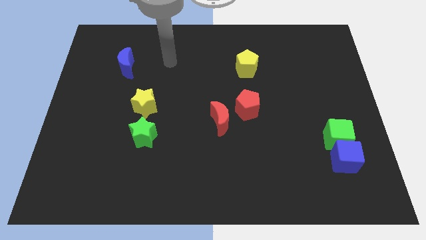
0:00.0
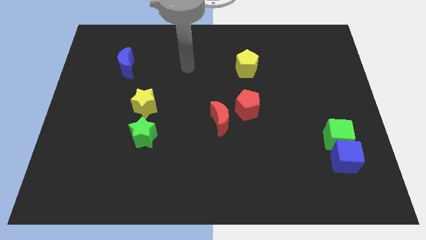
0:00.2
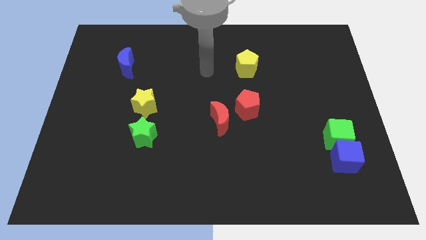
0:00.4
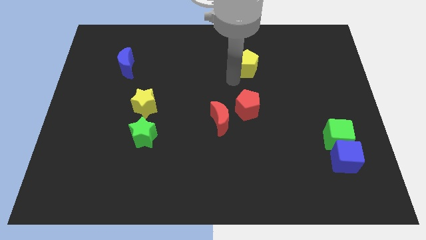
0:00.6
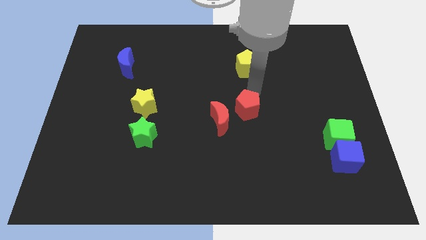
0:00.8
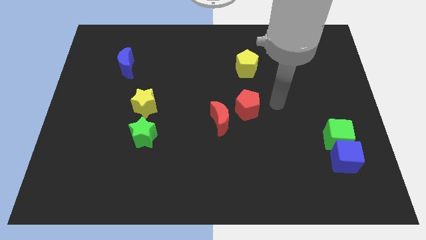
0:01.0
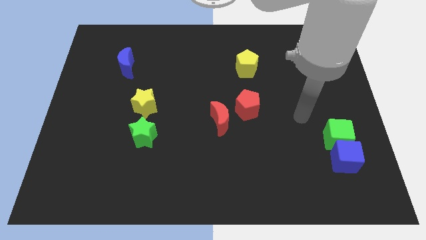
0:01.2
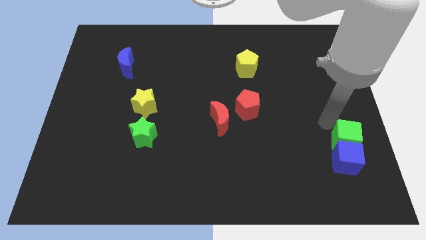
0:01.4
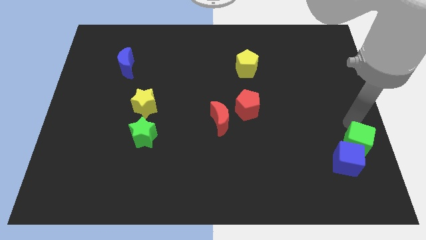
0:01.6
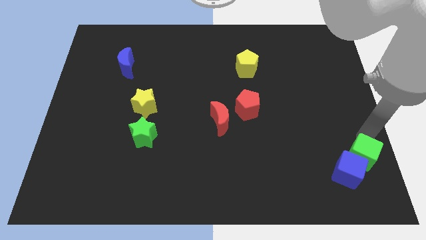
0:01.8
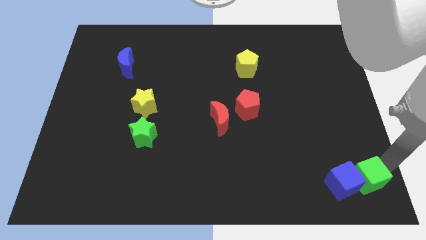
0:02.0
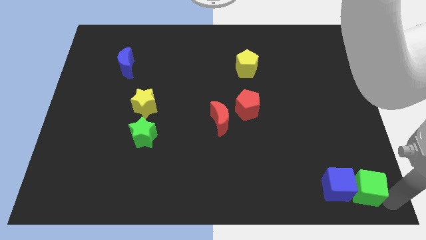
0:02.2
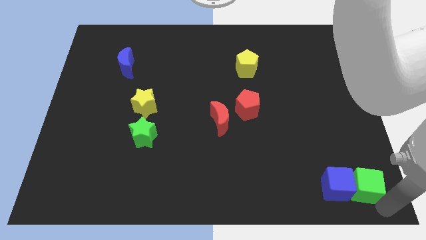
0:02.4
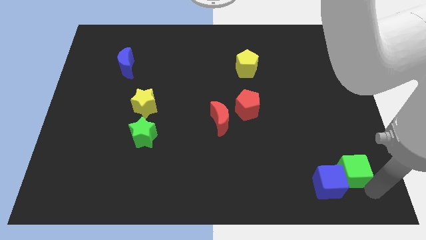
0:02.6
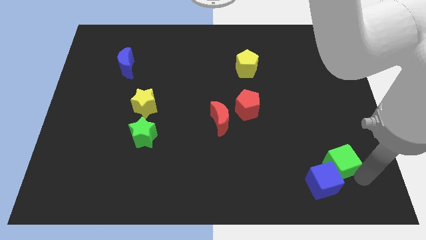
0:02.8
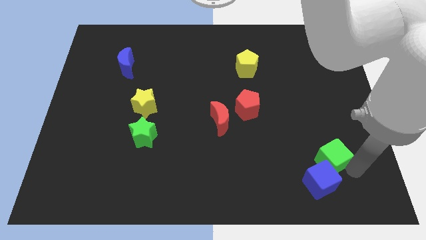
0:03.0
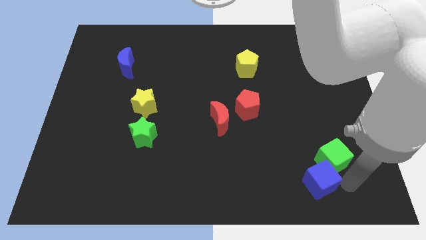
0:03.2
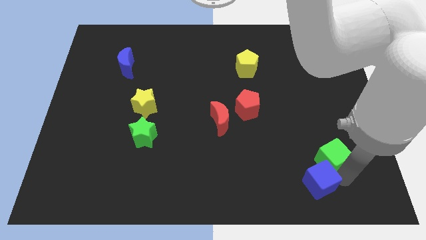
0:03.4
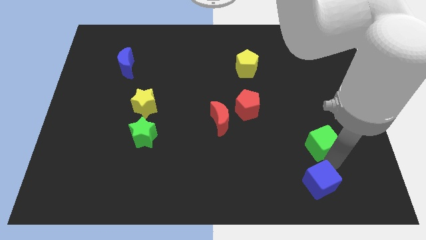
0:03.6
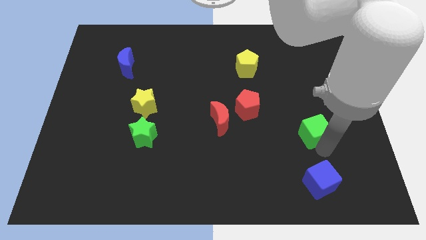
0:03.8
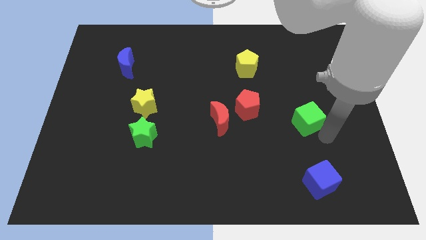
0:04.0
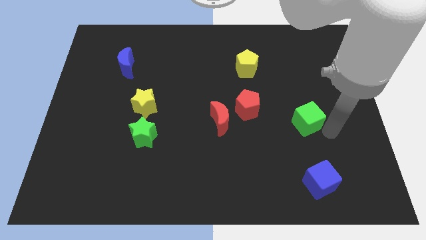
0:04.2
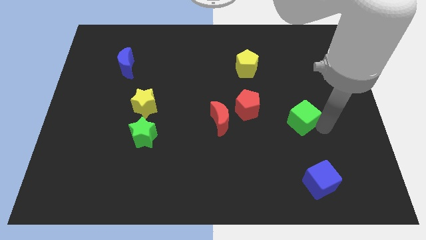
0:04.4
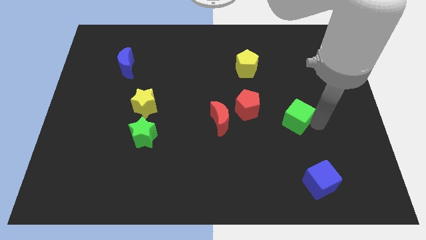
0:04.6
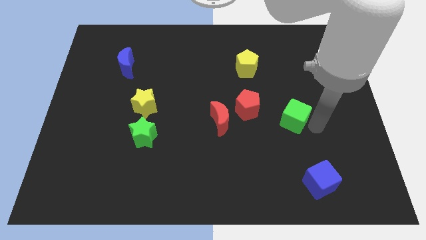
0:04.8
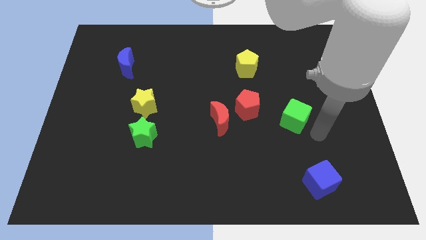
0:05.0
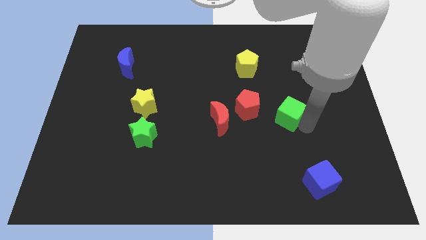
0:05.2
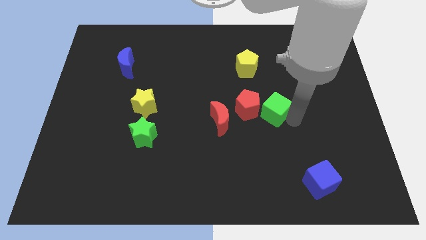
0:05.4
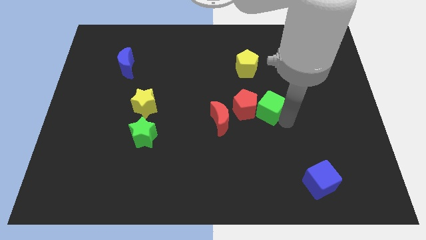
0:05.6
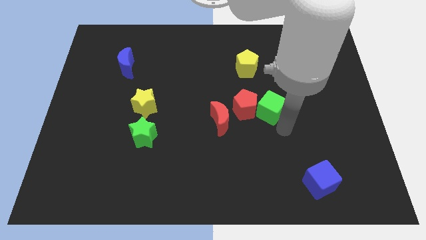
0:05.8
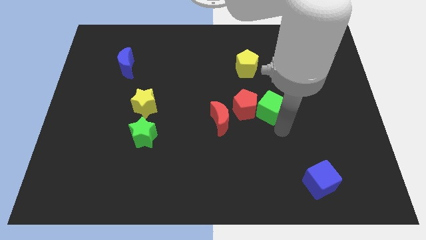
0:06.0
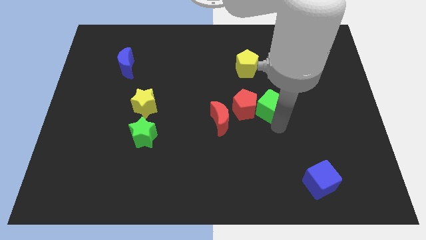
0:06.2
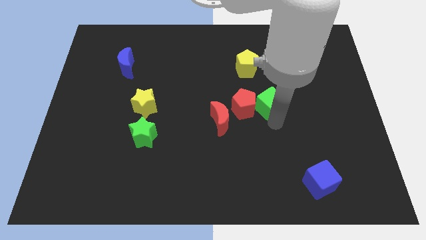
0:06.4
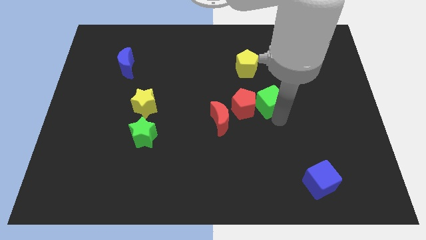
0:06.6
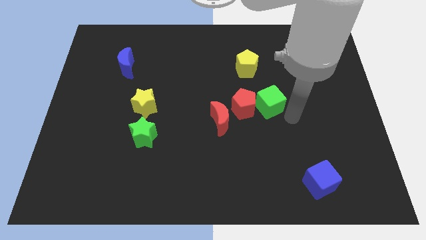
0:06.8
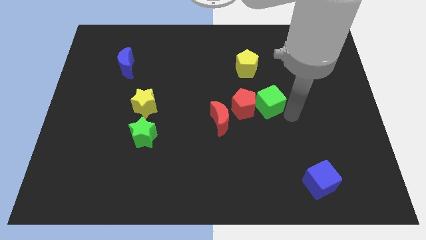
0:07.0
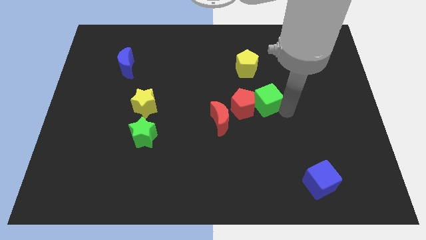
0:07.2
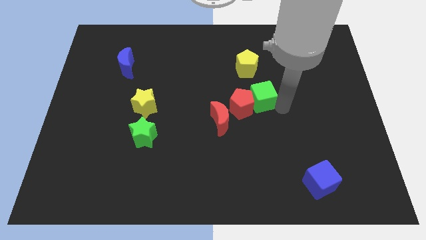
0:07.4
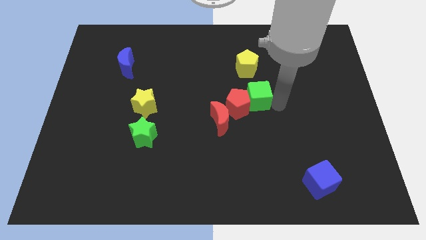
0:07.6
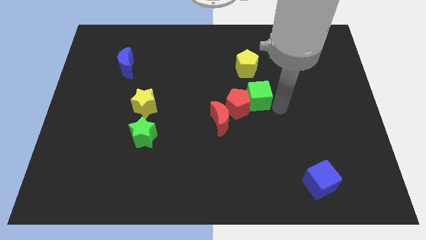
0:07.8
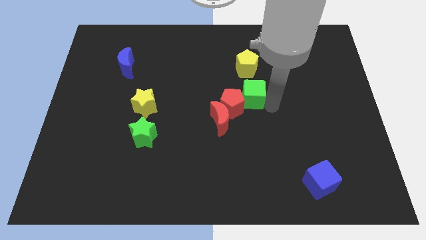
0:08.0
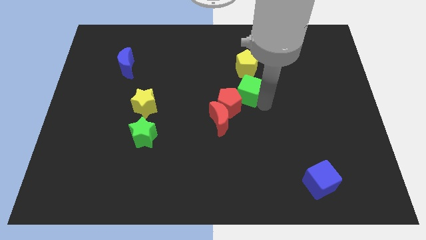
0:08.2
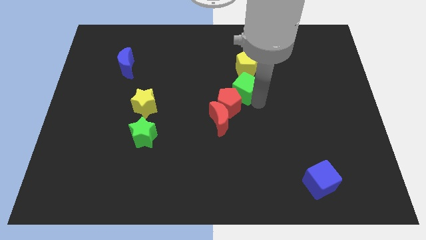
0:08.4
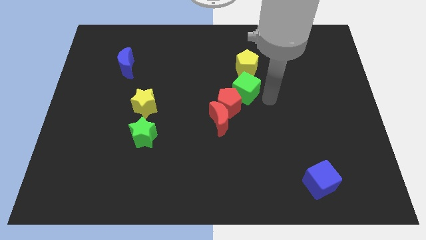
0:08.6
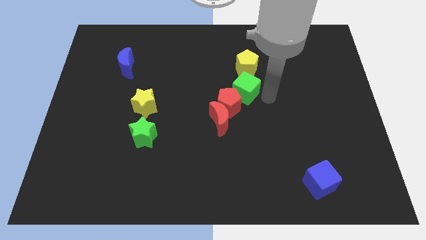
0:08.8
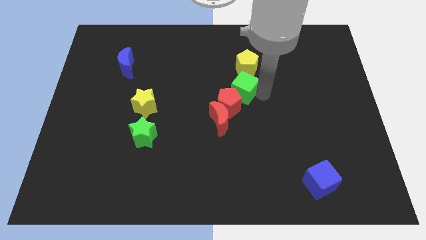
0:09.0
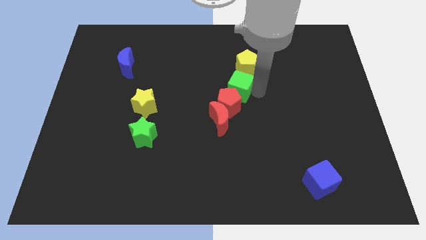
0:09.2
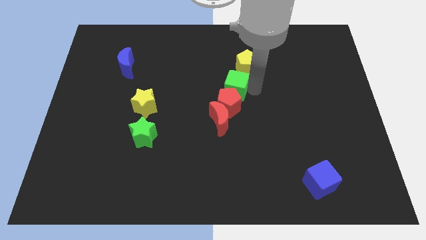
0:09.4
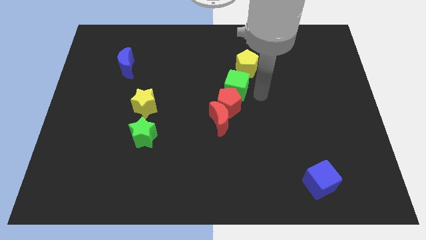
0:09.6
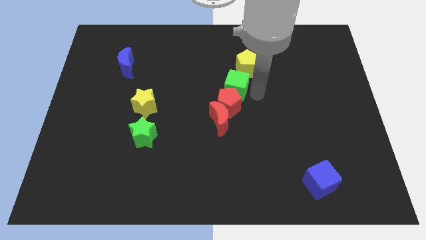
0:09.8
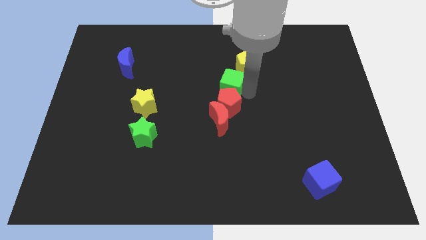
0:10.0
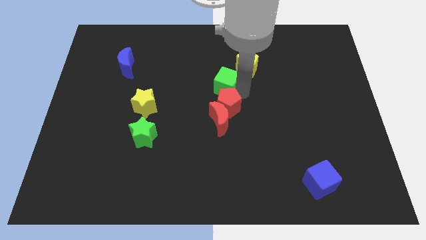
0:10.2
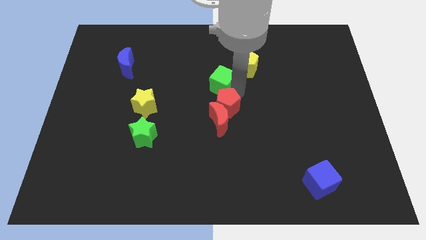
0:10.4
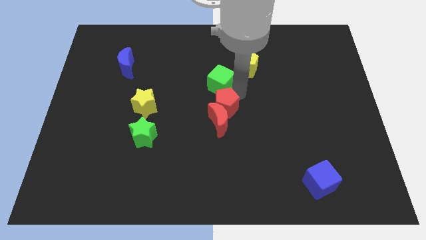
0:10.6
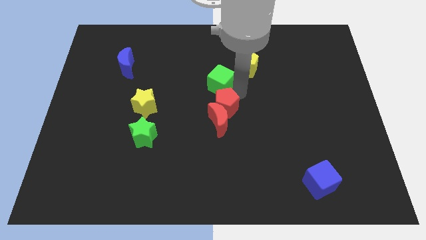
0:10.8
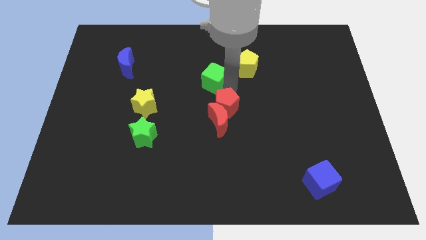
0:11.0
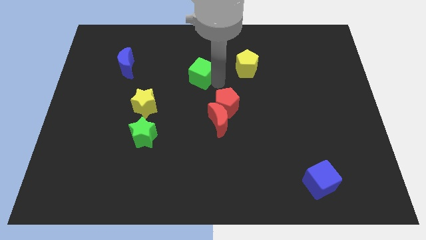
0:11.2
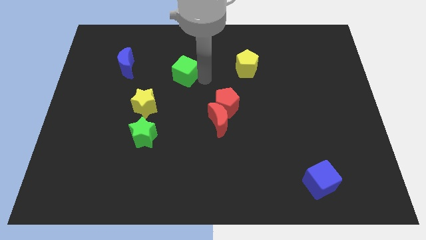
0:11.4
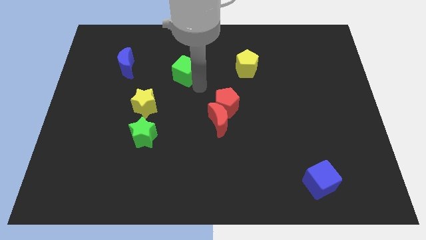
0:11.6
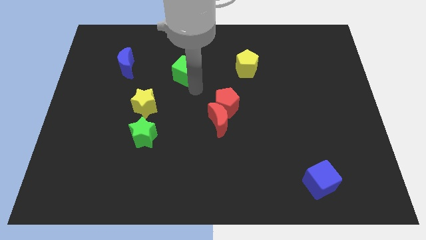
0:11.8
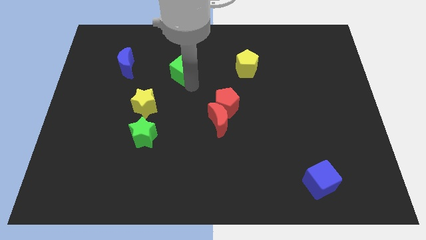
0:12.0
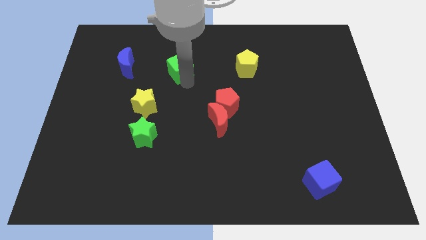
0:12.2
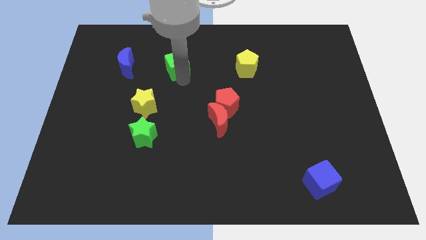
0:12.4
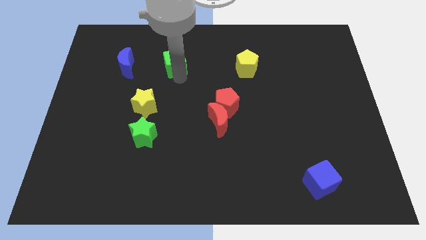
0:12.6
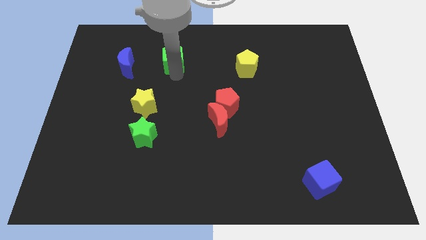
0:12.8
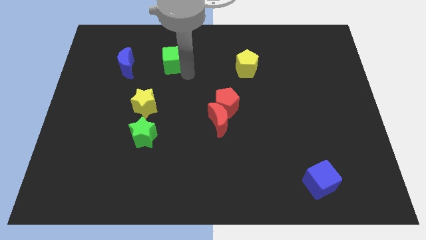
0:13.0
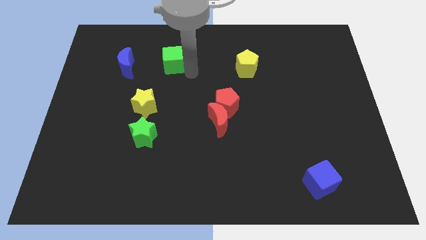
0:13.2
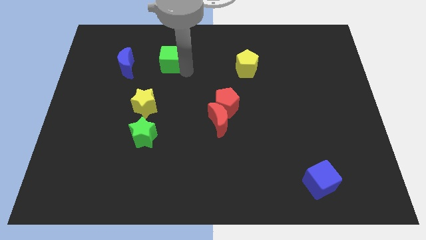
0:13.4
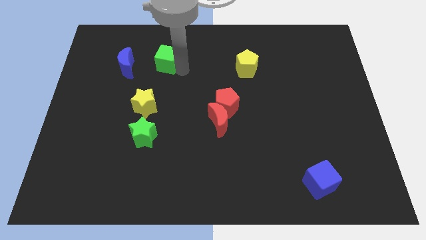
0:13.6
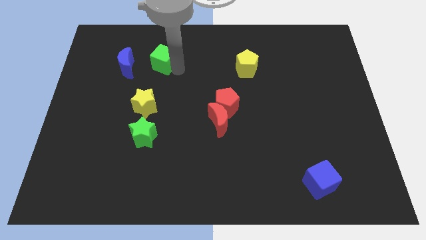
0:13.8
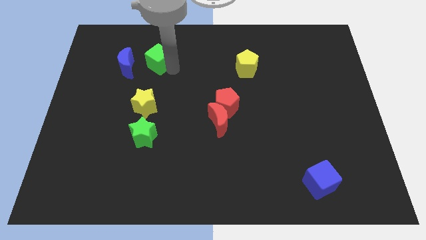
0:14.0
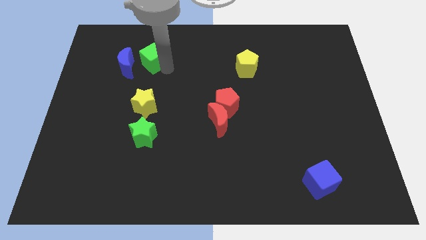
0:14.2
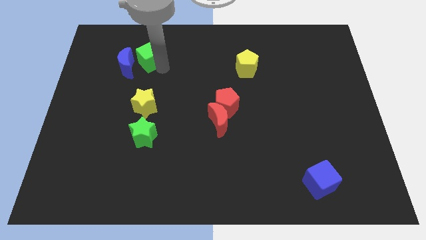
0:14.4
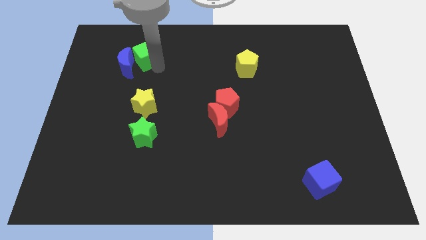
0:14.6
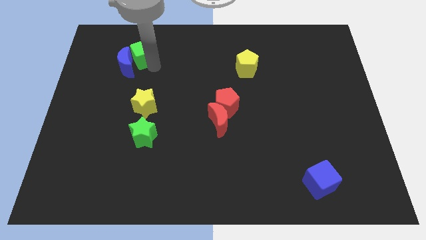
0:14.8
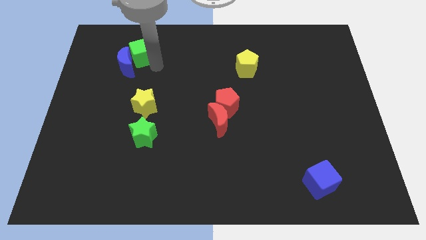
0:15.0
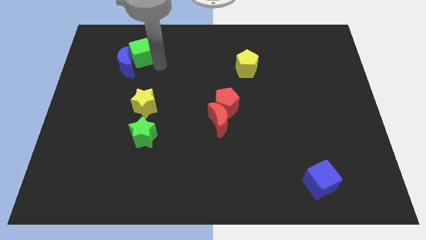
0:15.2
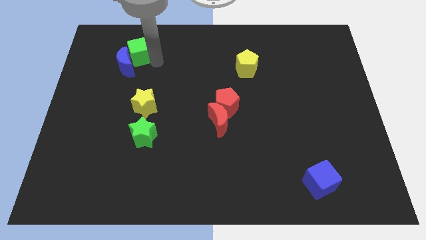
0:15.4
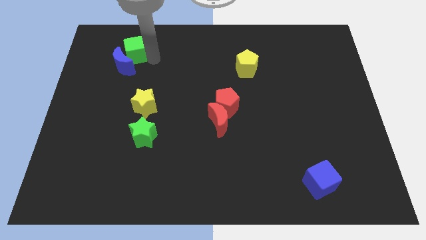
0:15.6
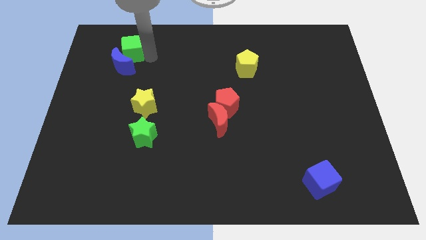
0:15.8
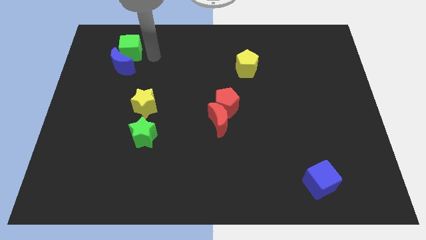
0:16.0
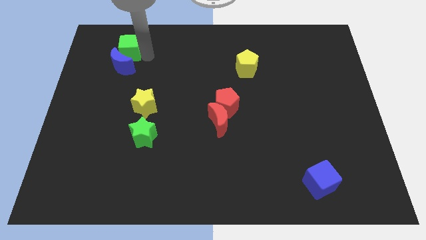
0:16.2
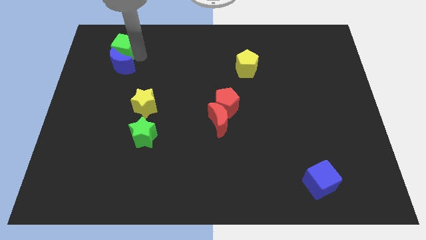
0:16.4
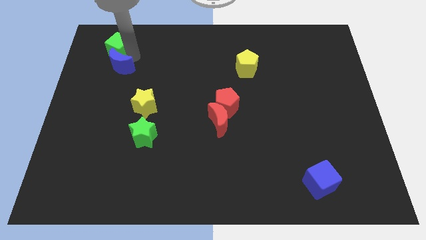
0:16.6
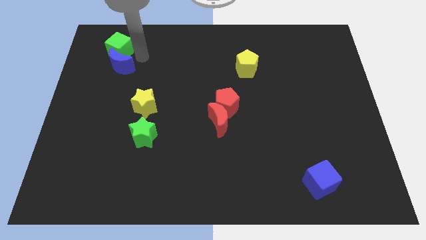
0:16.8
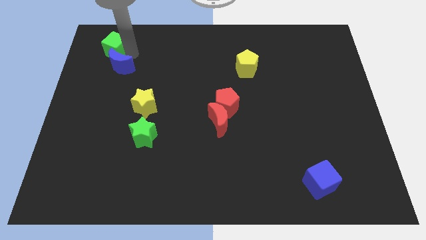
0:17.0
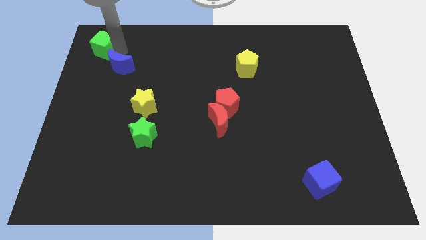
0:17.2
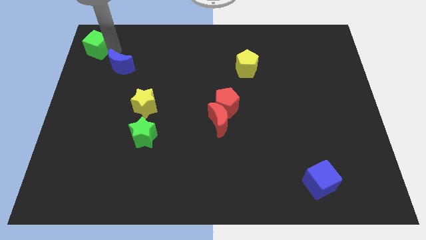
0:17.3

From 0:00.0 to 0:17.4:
push the green cube to the top left
